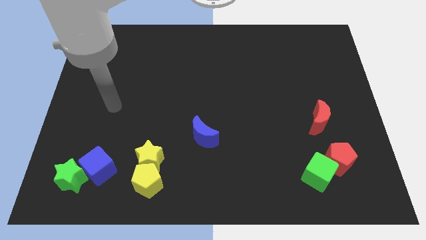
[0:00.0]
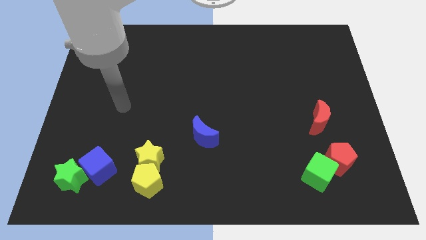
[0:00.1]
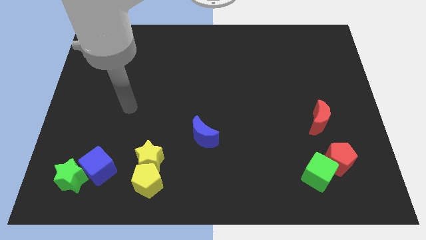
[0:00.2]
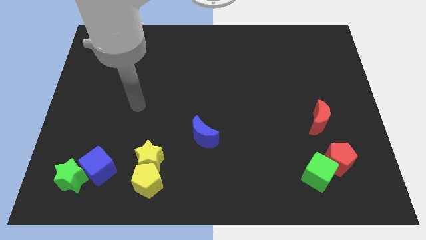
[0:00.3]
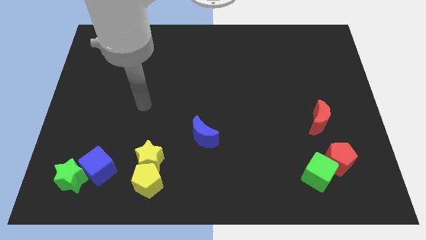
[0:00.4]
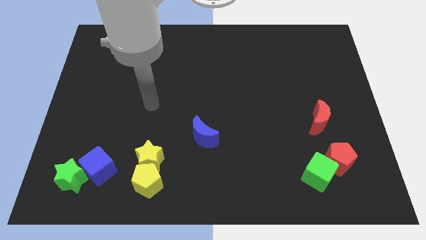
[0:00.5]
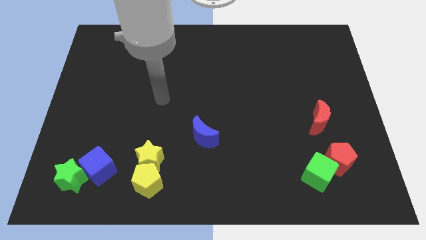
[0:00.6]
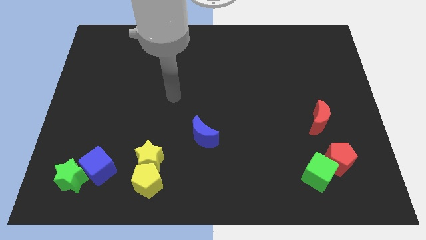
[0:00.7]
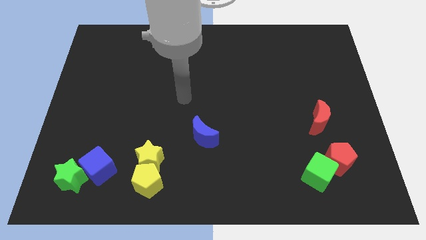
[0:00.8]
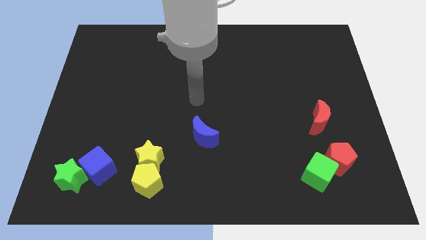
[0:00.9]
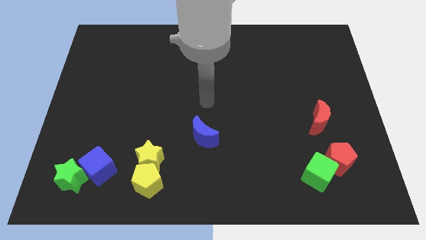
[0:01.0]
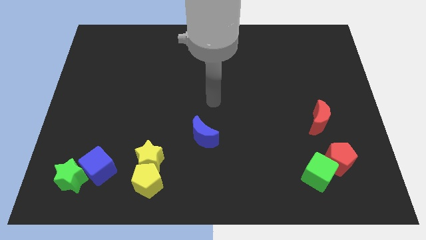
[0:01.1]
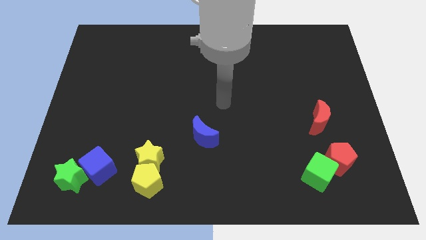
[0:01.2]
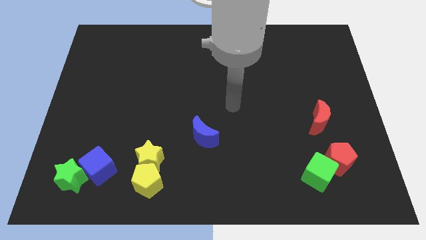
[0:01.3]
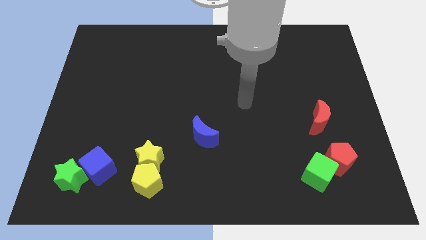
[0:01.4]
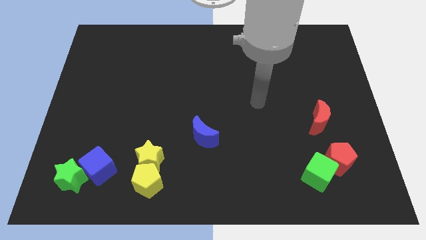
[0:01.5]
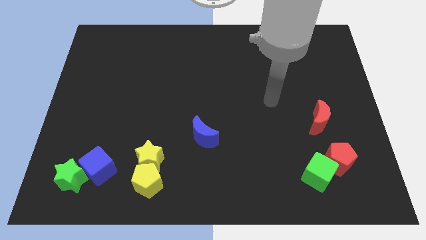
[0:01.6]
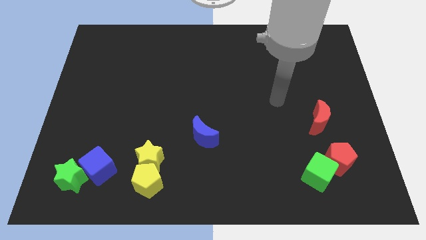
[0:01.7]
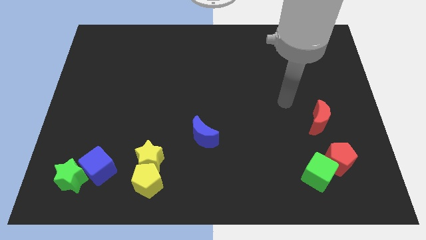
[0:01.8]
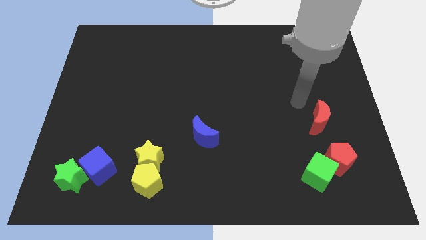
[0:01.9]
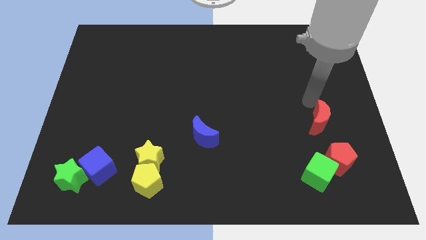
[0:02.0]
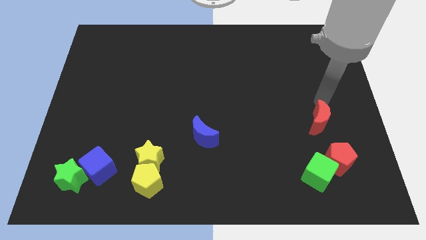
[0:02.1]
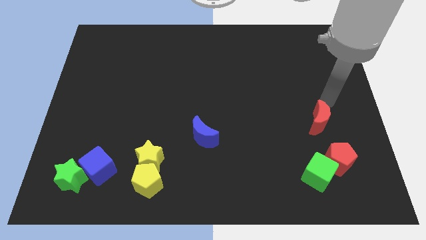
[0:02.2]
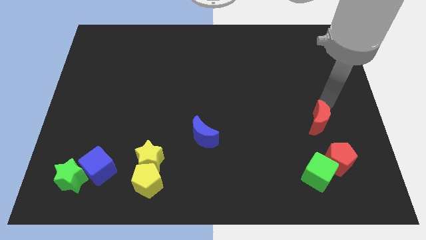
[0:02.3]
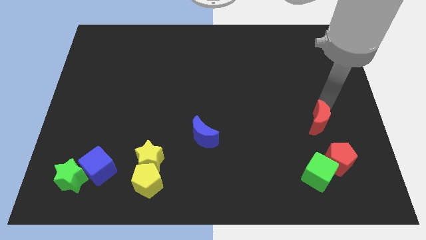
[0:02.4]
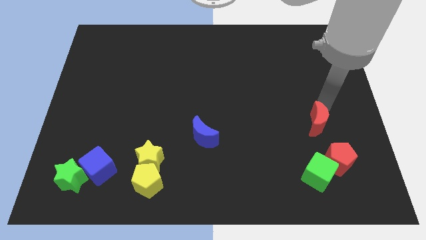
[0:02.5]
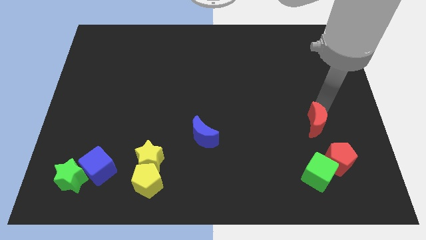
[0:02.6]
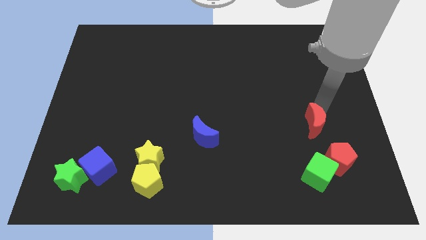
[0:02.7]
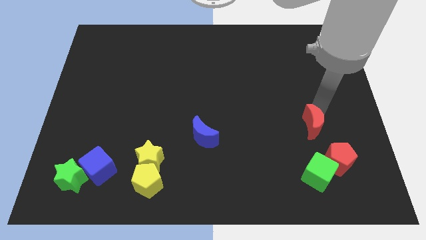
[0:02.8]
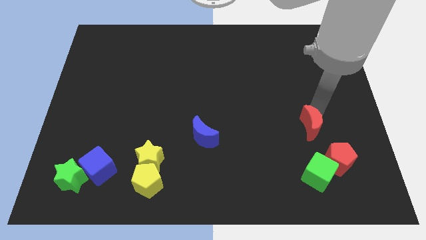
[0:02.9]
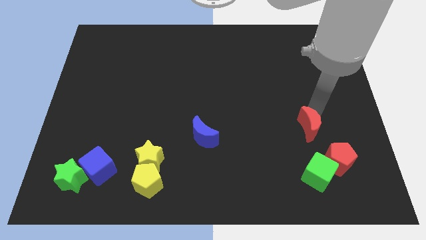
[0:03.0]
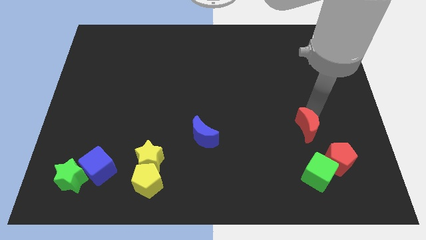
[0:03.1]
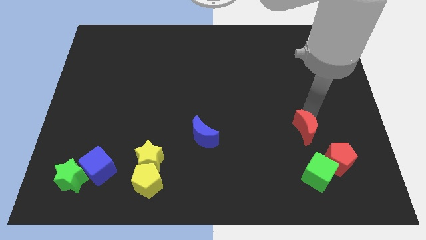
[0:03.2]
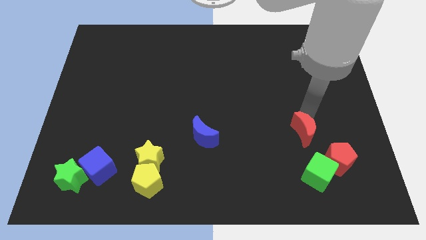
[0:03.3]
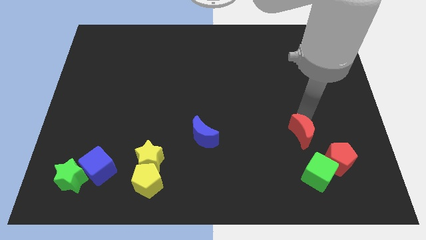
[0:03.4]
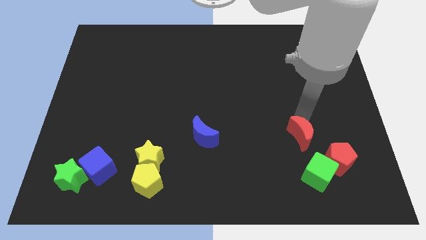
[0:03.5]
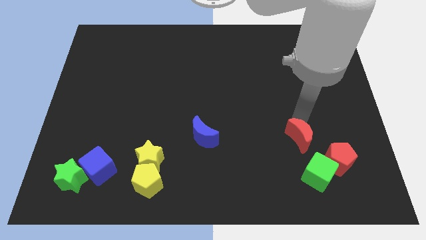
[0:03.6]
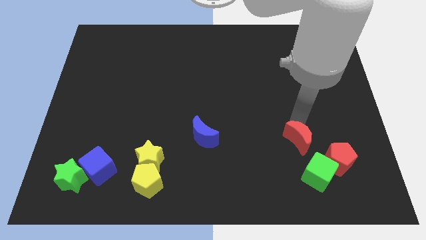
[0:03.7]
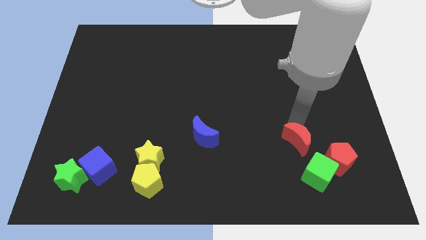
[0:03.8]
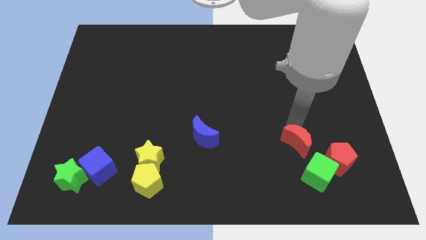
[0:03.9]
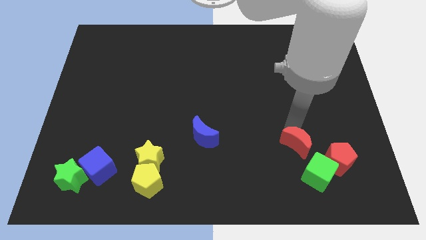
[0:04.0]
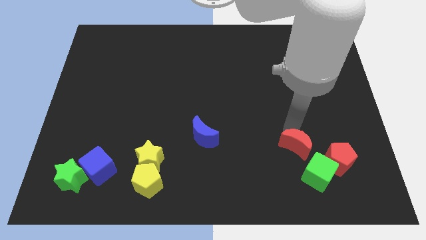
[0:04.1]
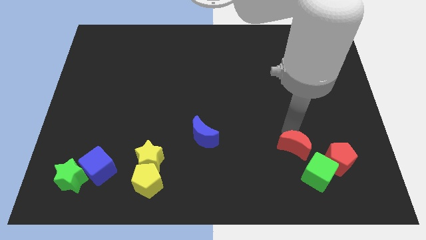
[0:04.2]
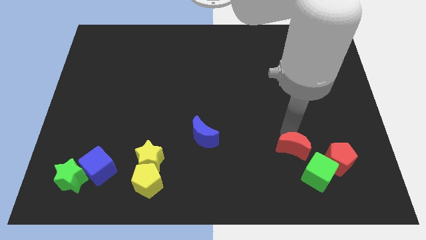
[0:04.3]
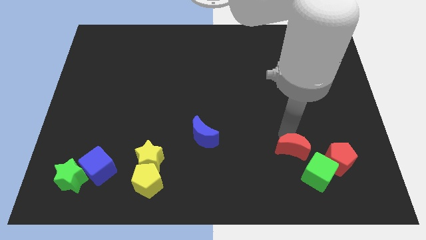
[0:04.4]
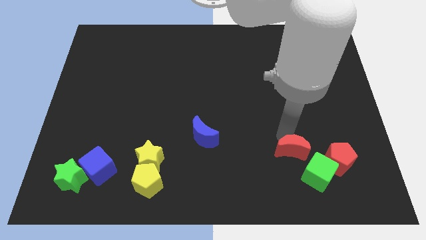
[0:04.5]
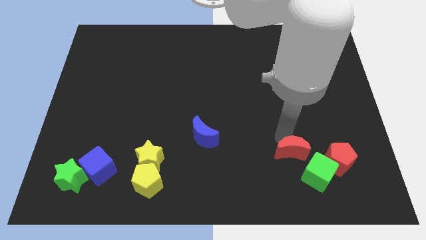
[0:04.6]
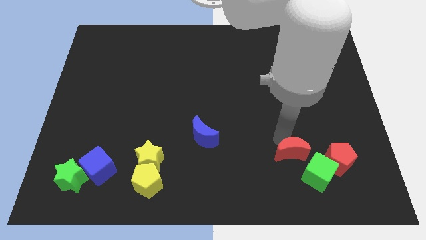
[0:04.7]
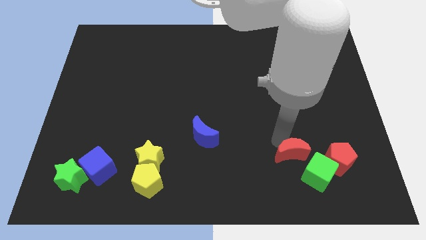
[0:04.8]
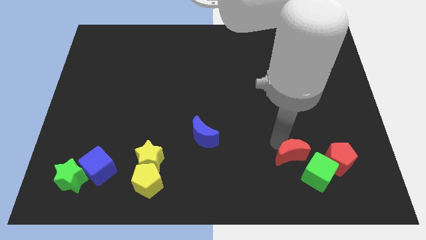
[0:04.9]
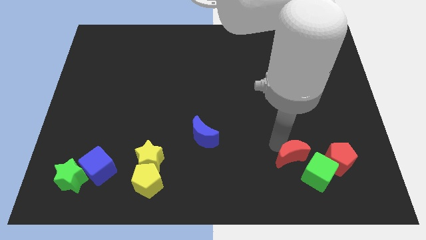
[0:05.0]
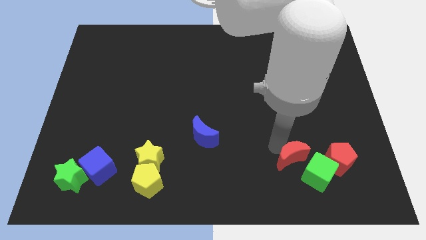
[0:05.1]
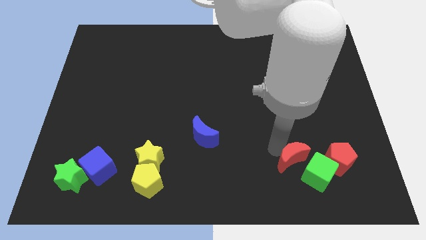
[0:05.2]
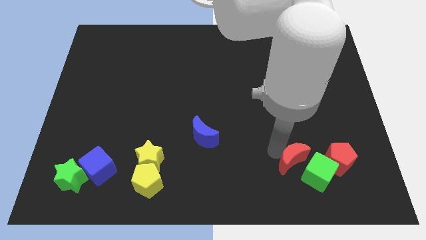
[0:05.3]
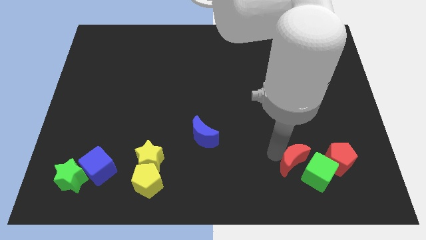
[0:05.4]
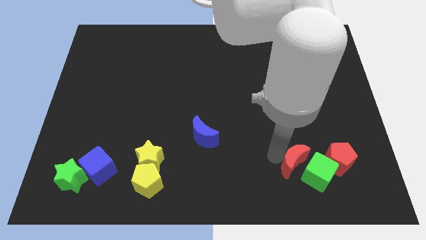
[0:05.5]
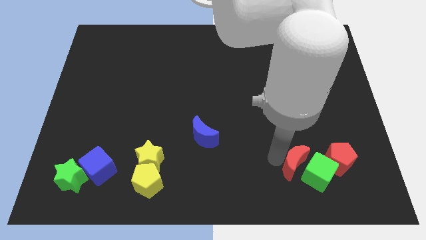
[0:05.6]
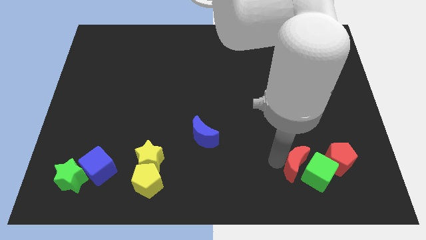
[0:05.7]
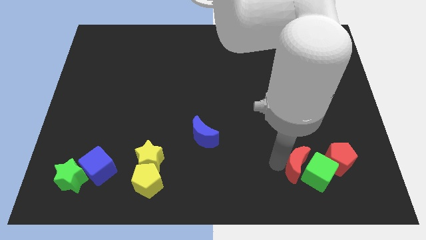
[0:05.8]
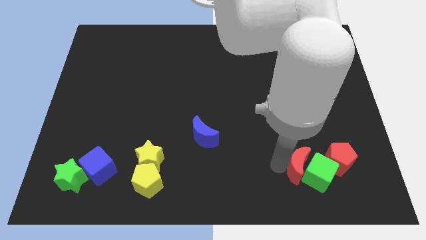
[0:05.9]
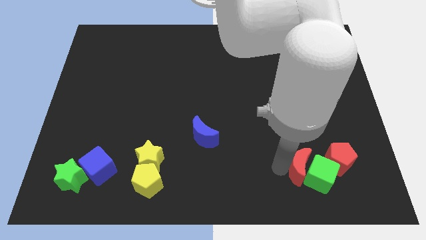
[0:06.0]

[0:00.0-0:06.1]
slide the red moon to the bottom left side of the red pentagon
